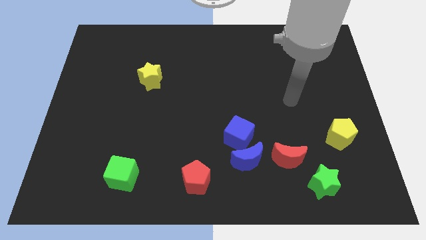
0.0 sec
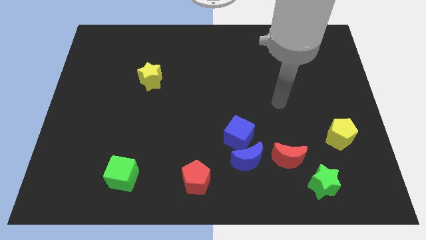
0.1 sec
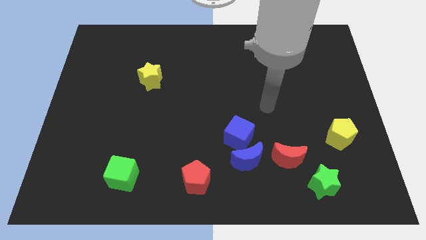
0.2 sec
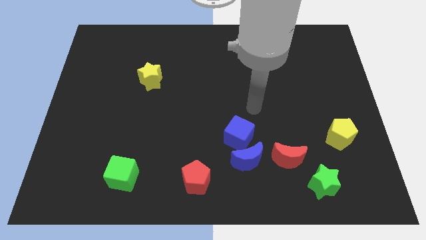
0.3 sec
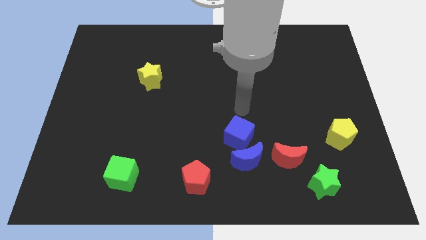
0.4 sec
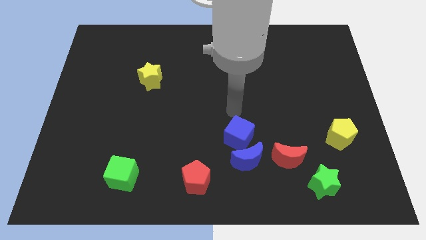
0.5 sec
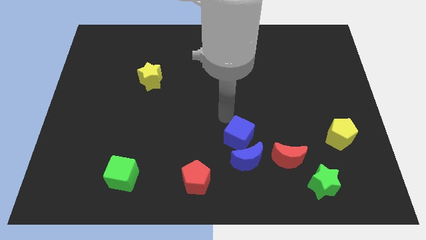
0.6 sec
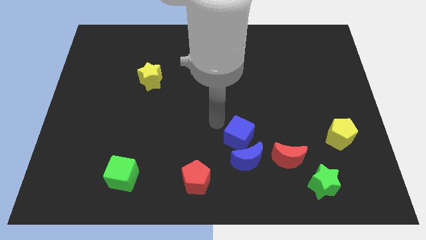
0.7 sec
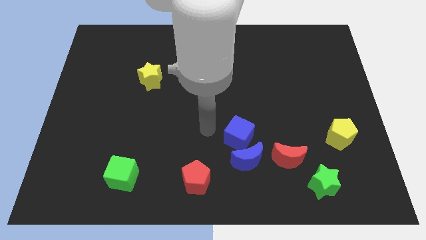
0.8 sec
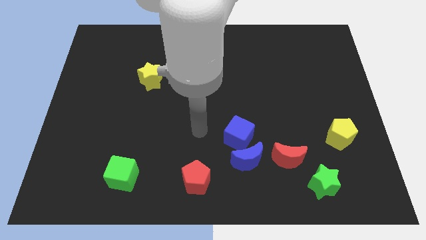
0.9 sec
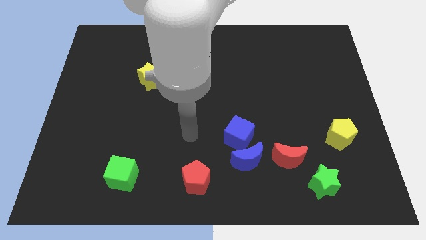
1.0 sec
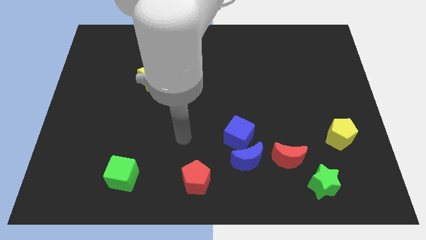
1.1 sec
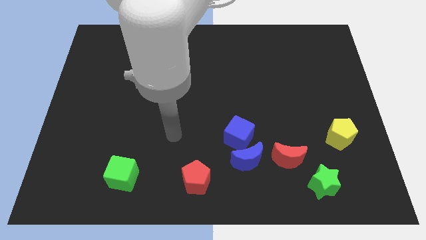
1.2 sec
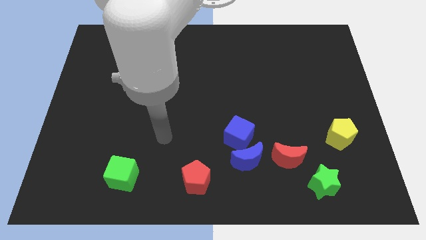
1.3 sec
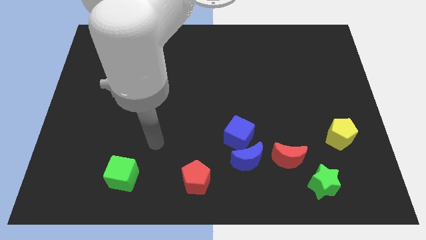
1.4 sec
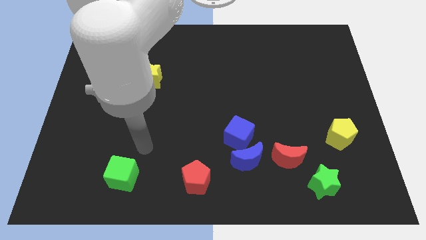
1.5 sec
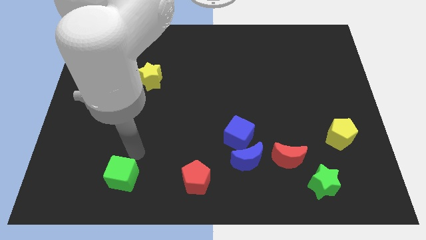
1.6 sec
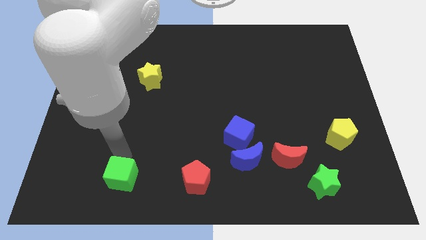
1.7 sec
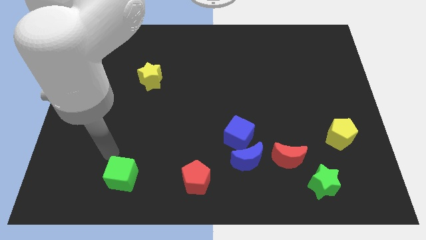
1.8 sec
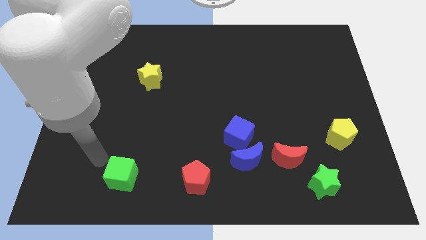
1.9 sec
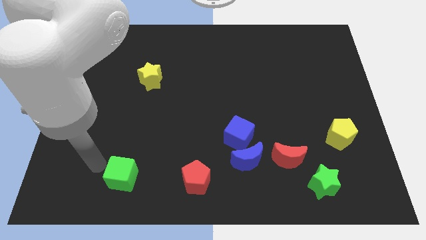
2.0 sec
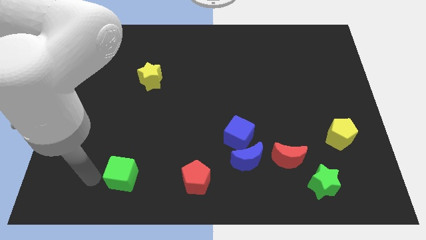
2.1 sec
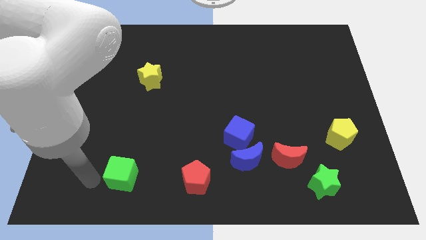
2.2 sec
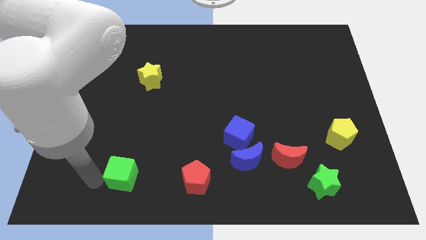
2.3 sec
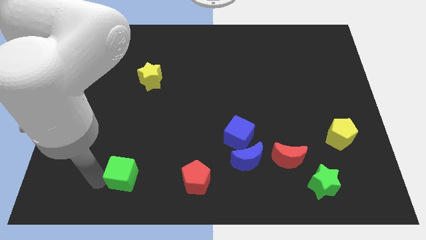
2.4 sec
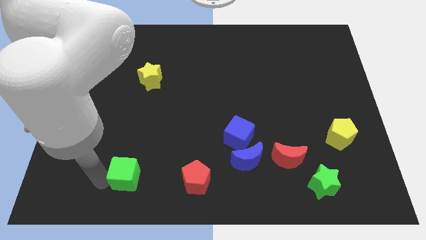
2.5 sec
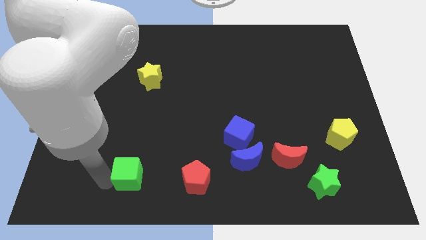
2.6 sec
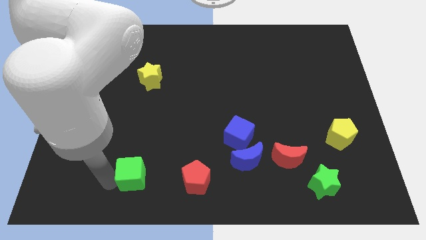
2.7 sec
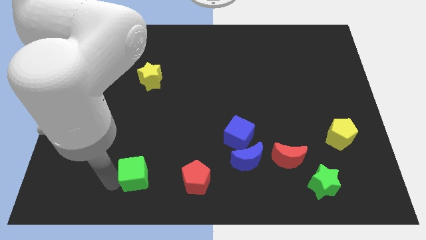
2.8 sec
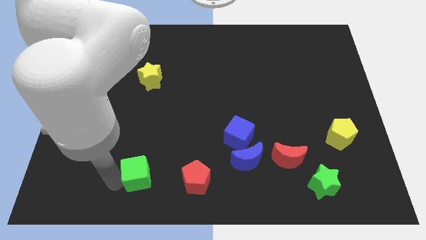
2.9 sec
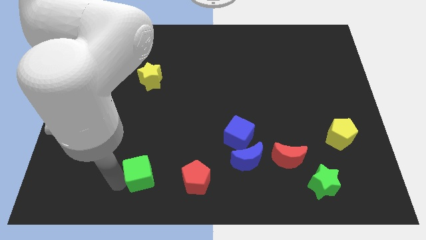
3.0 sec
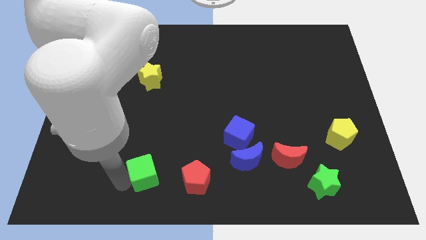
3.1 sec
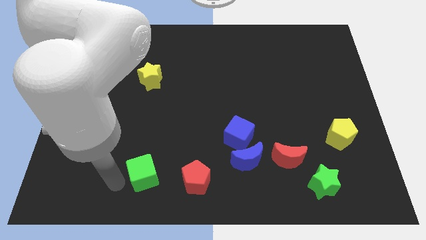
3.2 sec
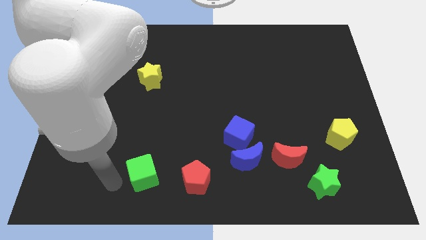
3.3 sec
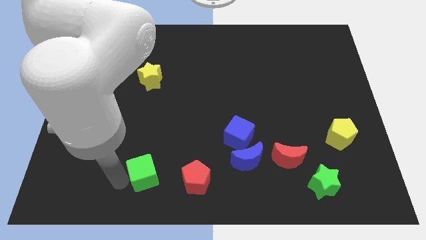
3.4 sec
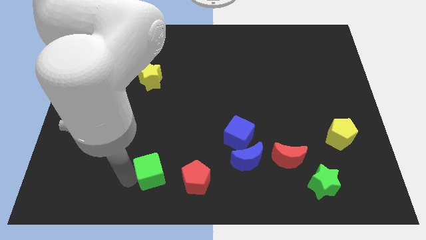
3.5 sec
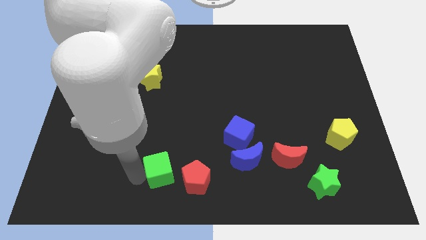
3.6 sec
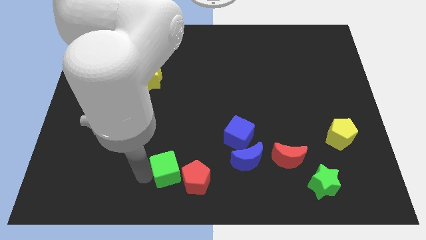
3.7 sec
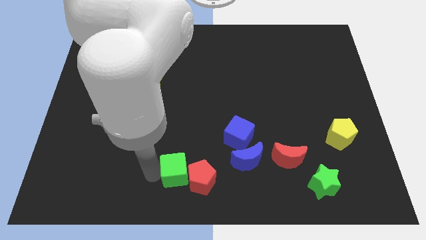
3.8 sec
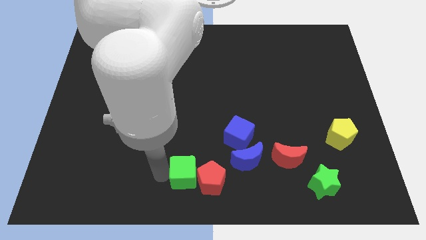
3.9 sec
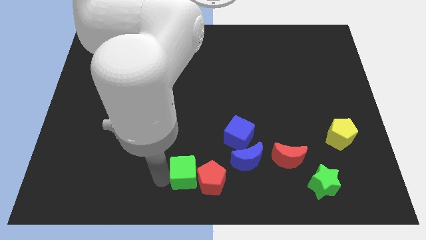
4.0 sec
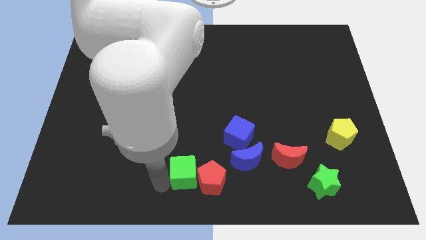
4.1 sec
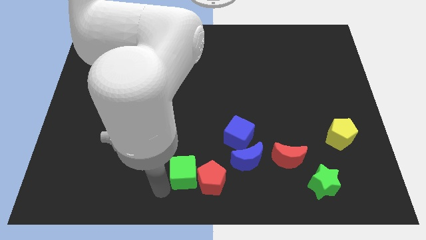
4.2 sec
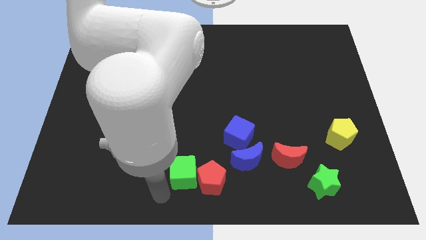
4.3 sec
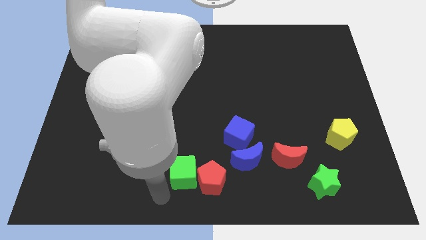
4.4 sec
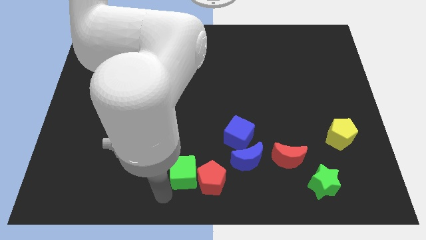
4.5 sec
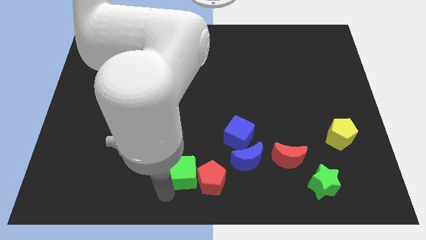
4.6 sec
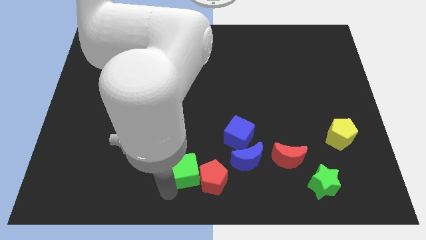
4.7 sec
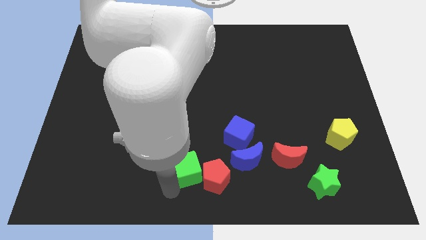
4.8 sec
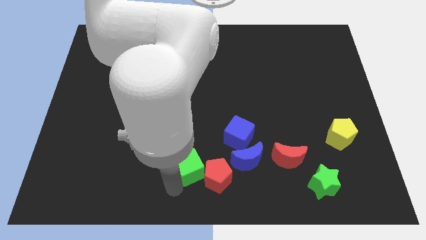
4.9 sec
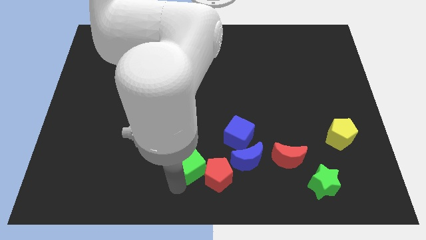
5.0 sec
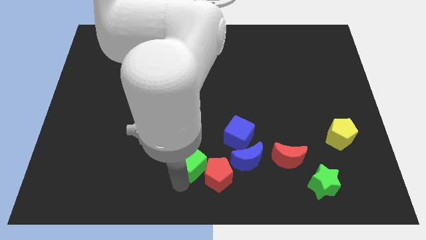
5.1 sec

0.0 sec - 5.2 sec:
move the green cube diagonally down and to the left of the blue cube

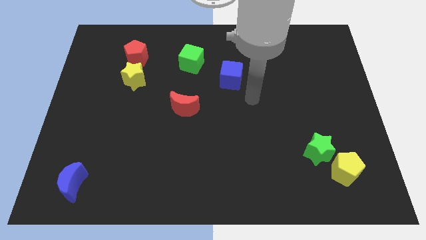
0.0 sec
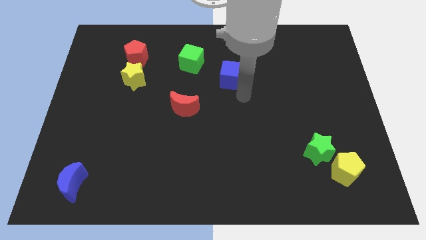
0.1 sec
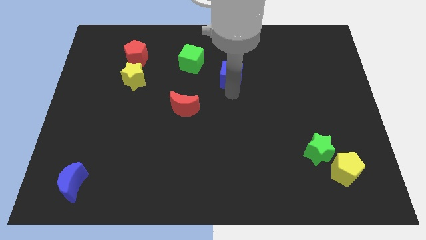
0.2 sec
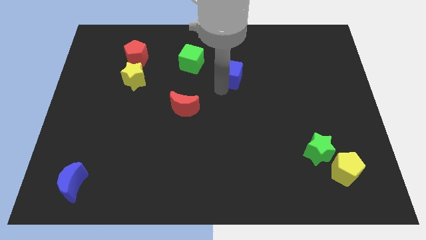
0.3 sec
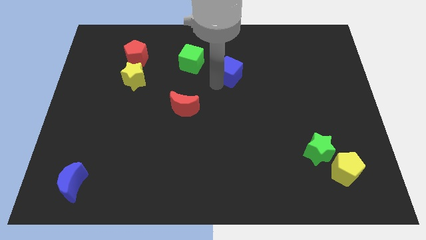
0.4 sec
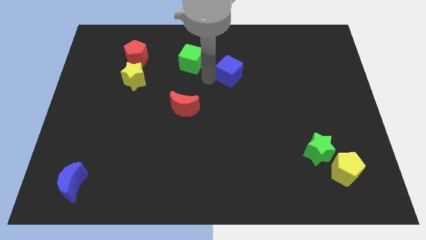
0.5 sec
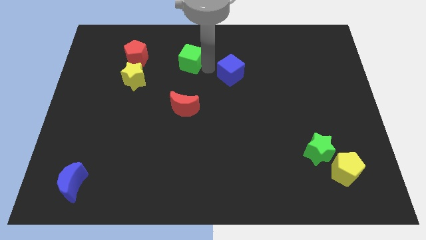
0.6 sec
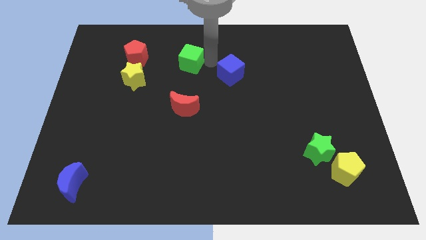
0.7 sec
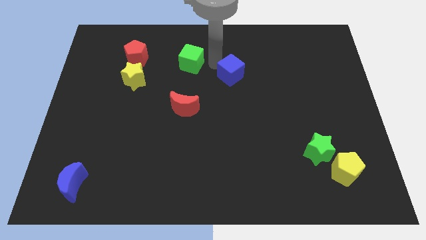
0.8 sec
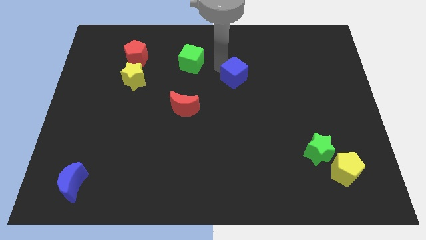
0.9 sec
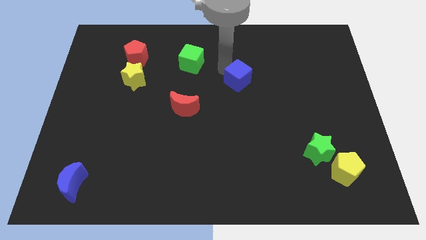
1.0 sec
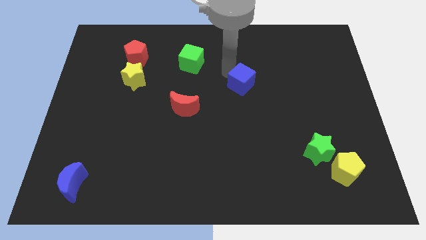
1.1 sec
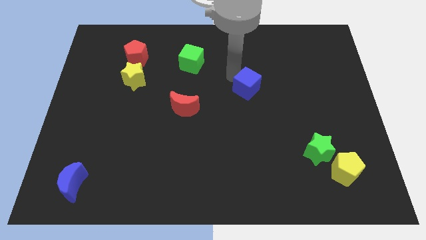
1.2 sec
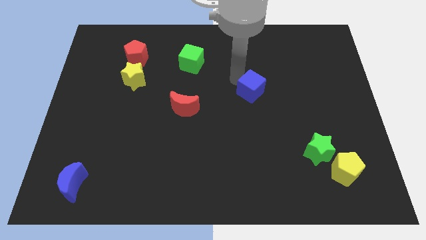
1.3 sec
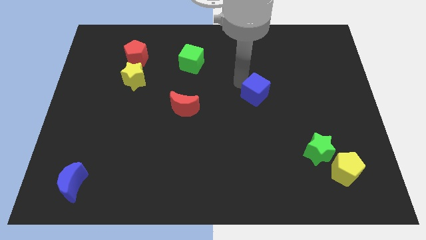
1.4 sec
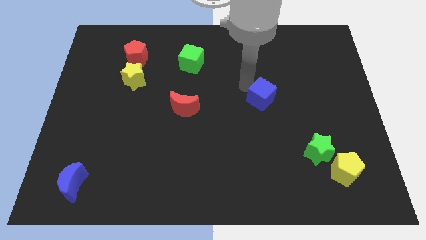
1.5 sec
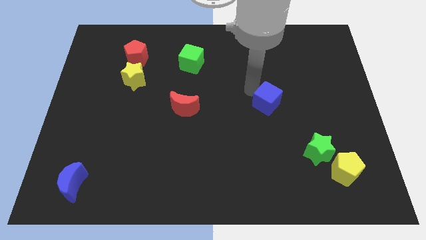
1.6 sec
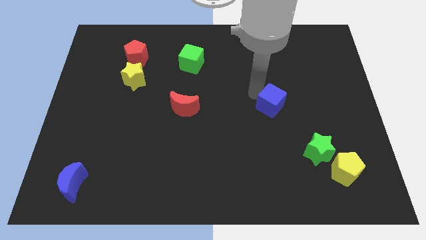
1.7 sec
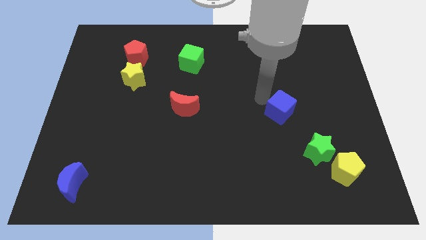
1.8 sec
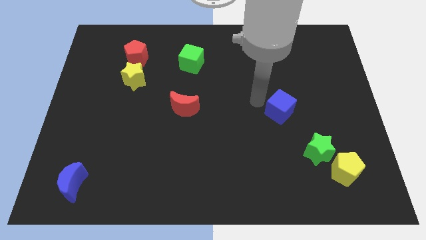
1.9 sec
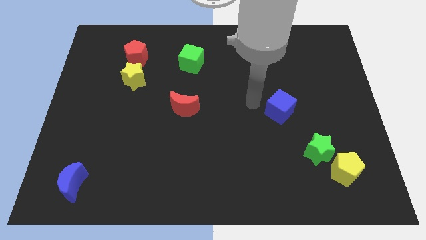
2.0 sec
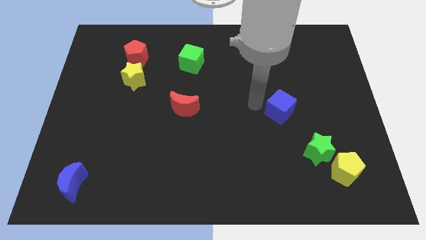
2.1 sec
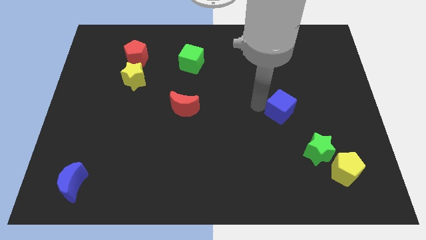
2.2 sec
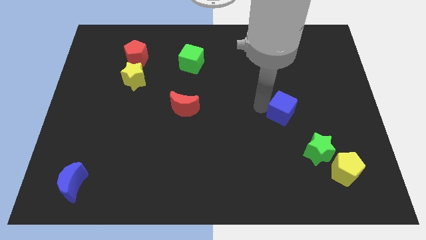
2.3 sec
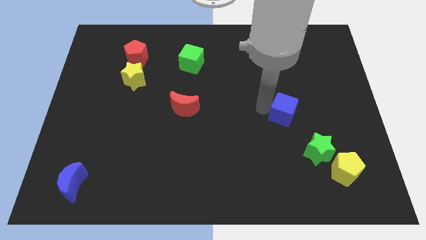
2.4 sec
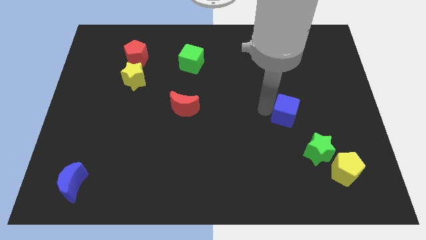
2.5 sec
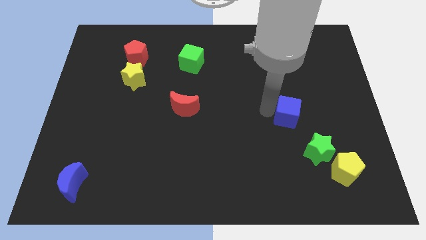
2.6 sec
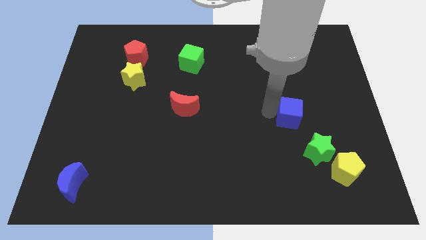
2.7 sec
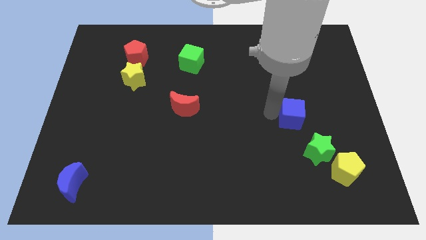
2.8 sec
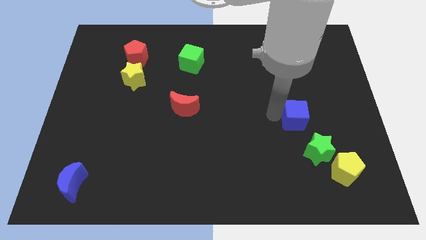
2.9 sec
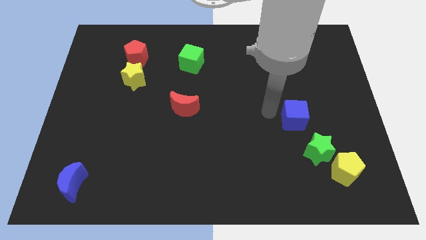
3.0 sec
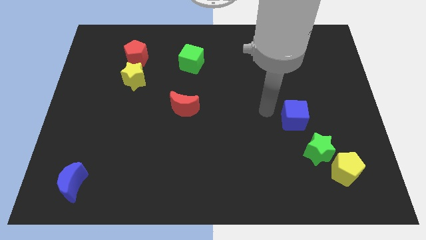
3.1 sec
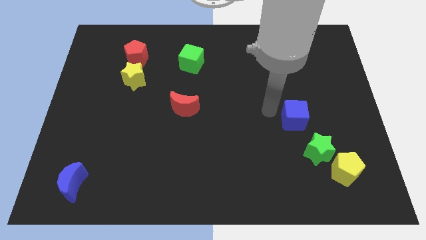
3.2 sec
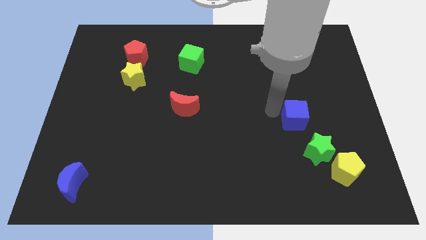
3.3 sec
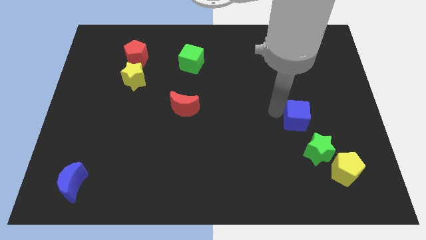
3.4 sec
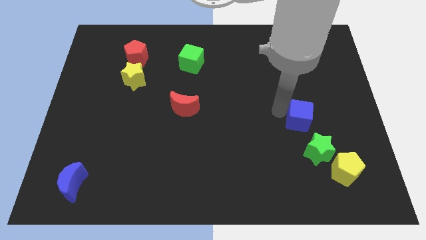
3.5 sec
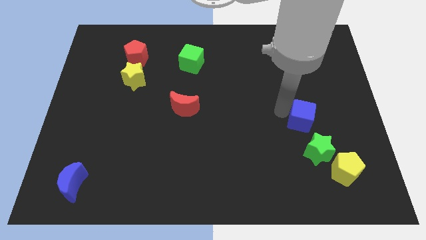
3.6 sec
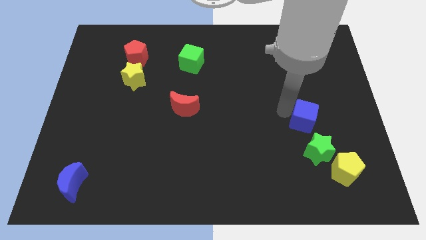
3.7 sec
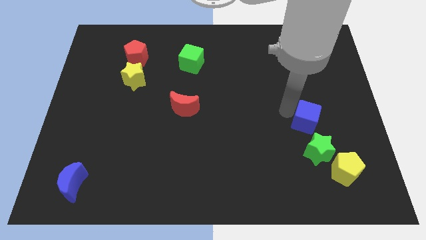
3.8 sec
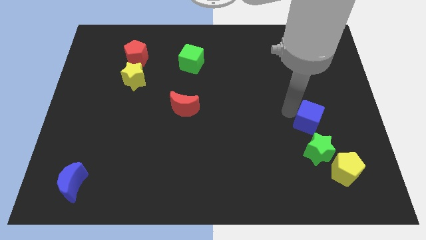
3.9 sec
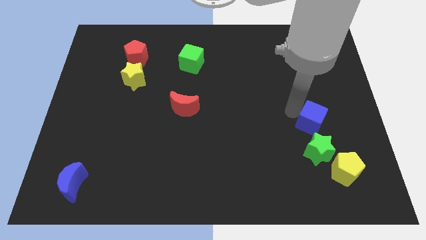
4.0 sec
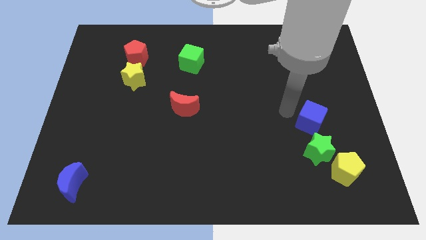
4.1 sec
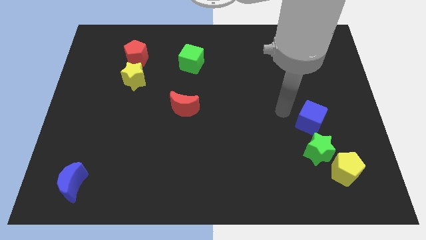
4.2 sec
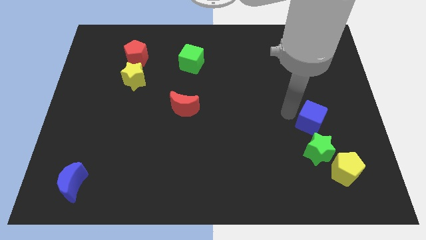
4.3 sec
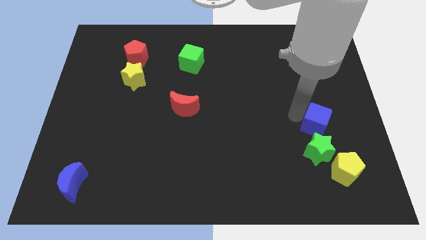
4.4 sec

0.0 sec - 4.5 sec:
slide the blue cube above the yellow pentagon
